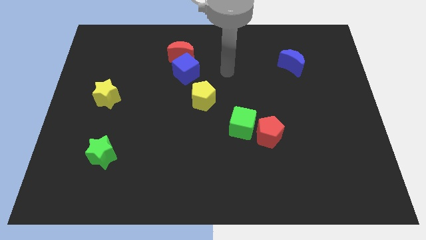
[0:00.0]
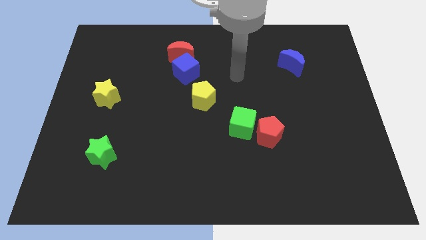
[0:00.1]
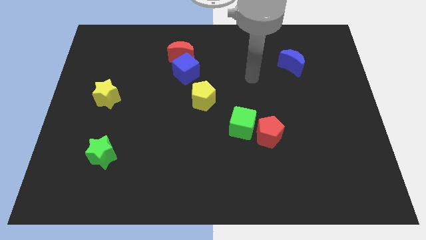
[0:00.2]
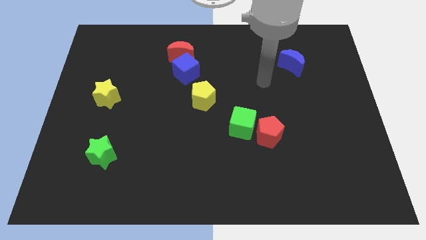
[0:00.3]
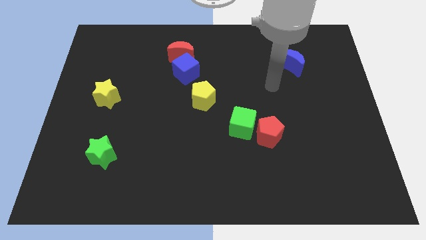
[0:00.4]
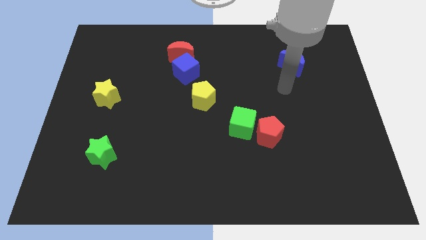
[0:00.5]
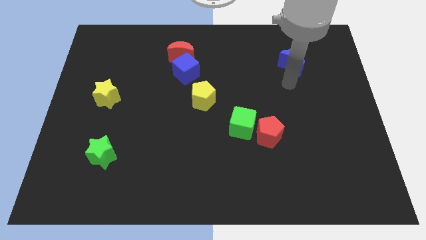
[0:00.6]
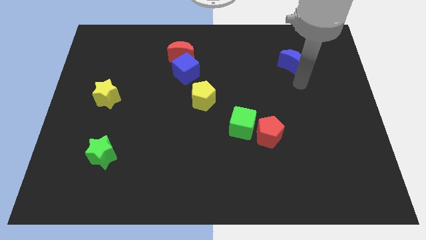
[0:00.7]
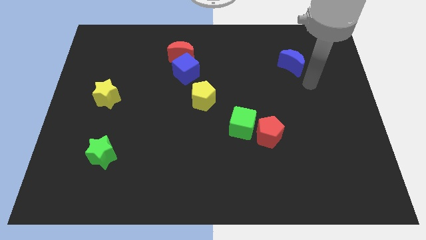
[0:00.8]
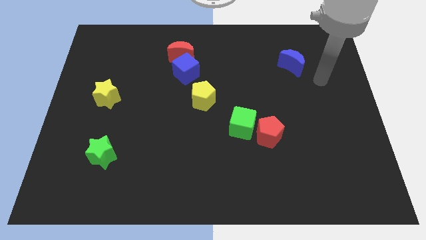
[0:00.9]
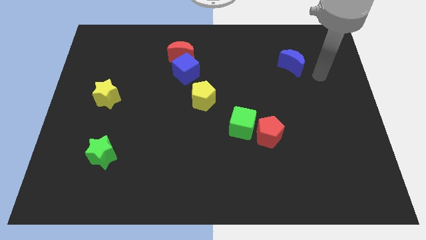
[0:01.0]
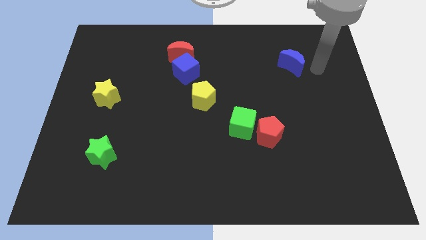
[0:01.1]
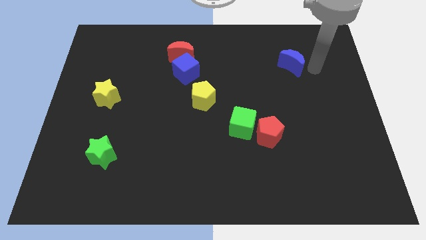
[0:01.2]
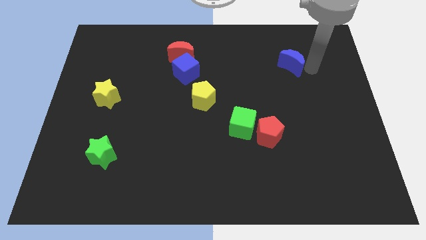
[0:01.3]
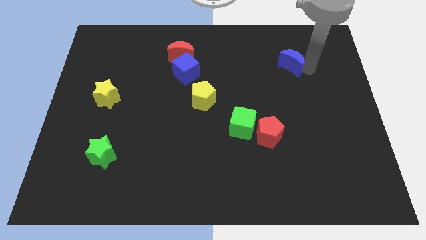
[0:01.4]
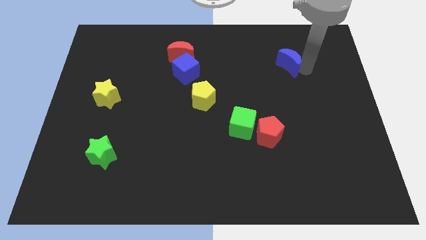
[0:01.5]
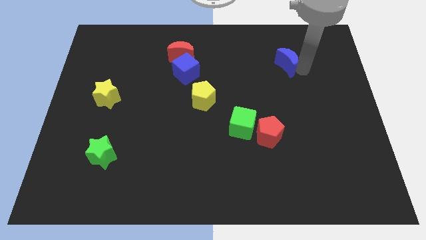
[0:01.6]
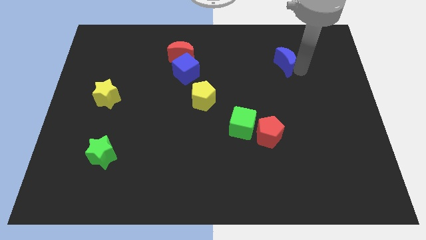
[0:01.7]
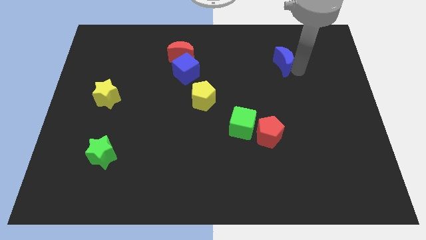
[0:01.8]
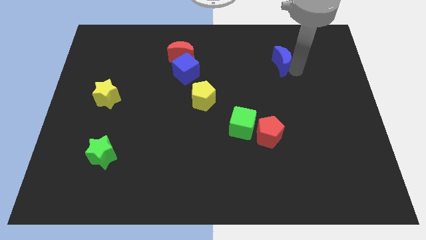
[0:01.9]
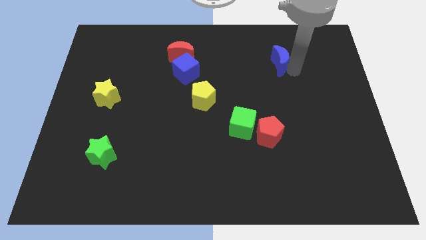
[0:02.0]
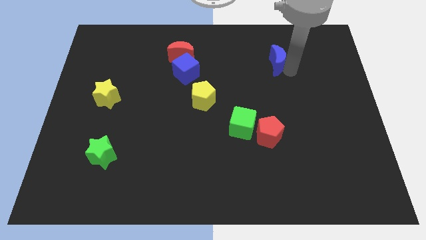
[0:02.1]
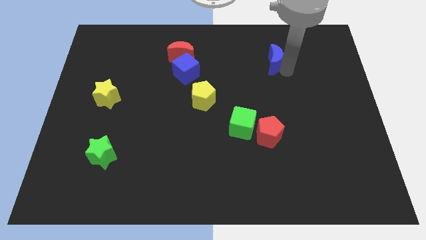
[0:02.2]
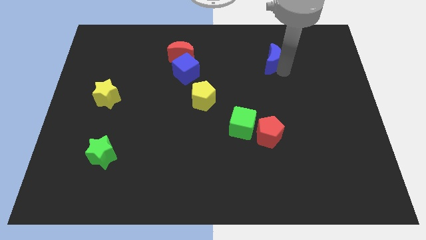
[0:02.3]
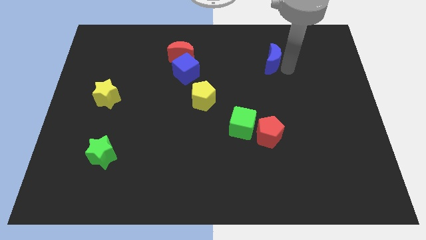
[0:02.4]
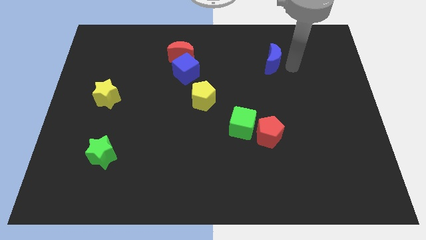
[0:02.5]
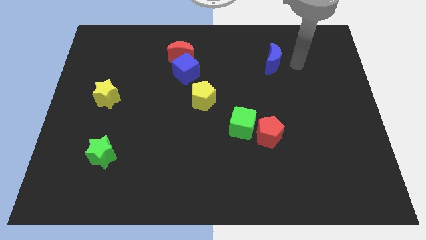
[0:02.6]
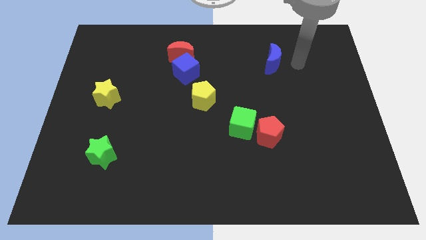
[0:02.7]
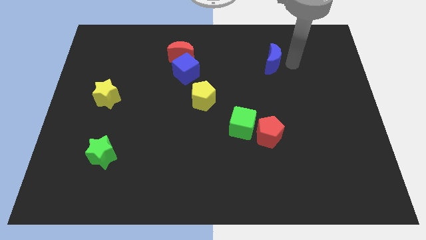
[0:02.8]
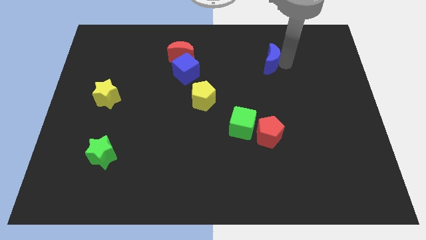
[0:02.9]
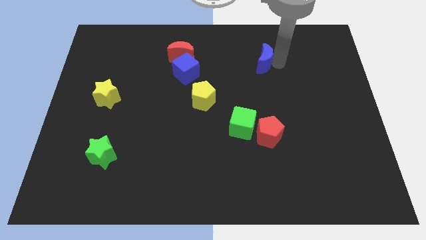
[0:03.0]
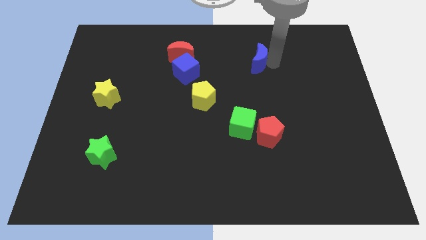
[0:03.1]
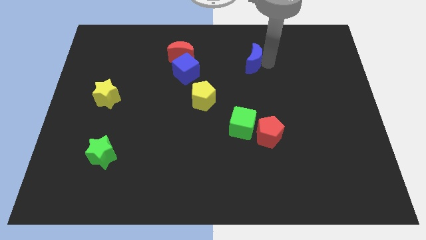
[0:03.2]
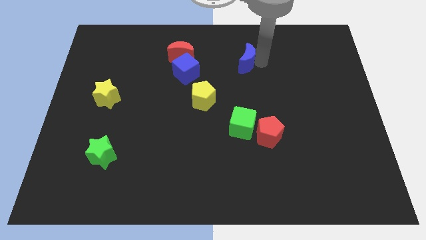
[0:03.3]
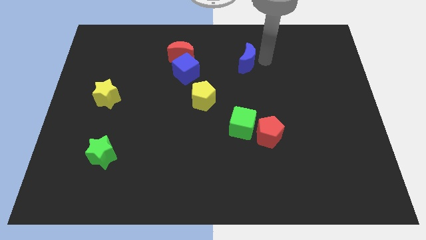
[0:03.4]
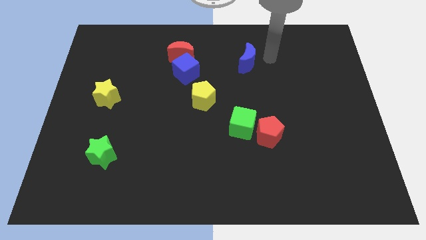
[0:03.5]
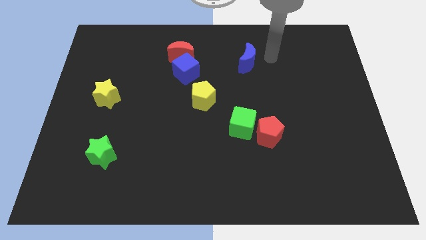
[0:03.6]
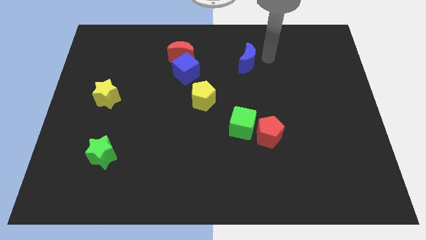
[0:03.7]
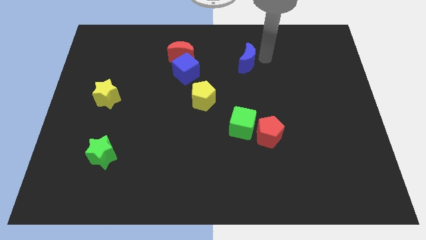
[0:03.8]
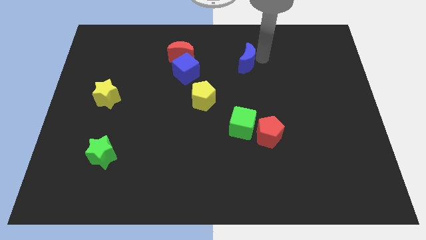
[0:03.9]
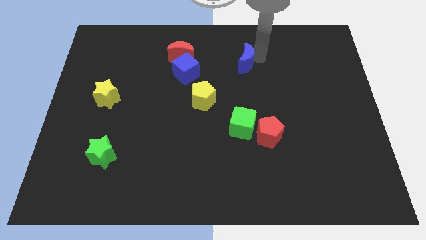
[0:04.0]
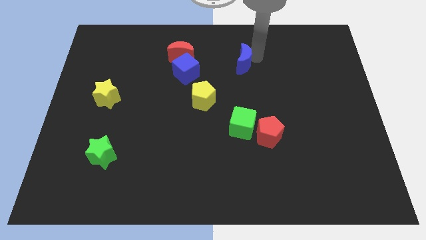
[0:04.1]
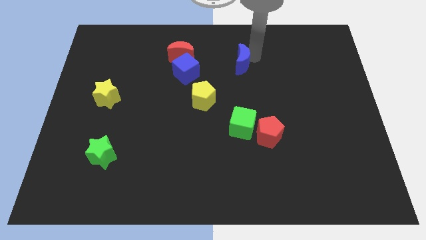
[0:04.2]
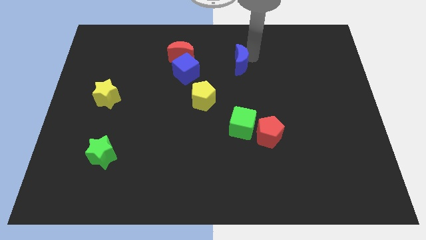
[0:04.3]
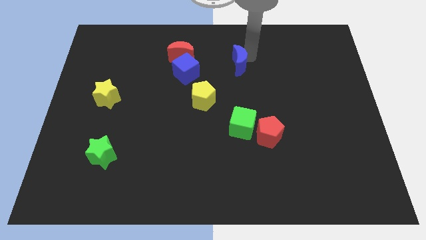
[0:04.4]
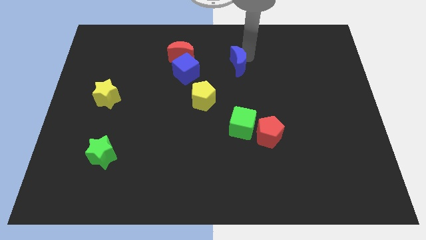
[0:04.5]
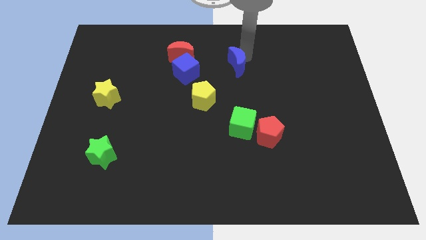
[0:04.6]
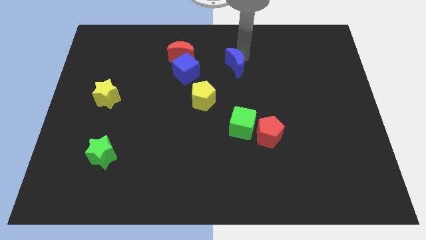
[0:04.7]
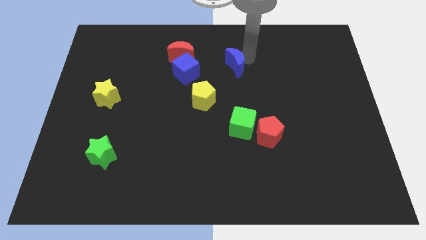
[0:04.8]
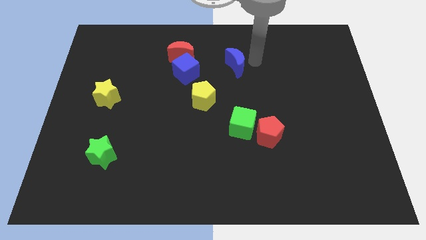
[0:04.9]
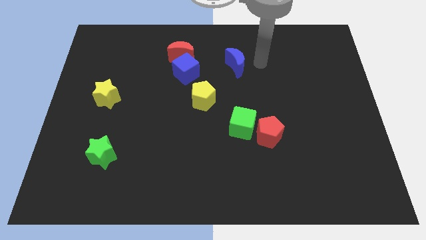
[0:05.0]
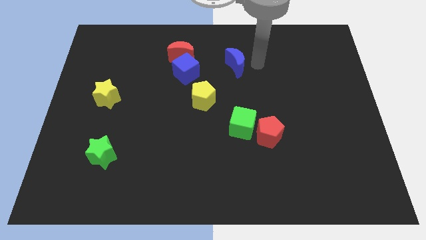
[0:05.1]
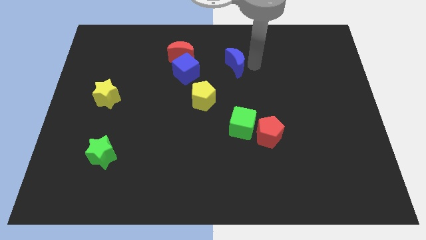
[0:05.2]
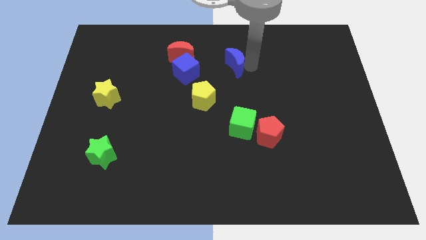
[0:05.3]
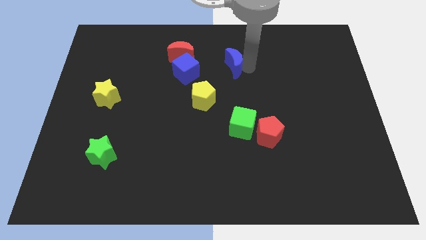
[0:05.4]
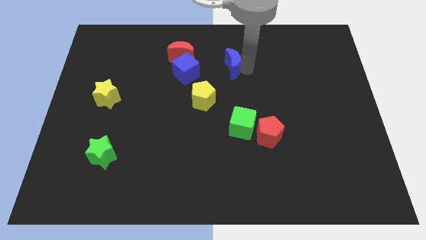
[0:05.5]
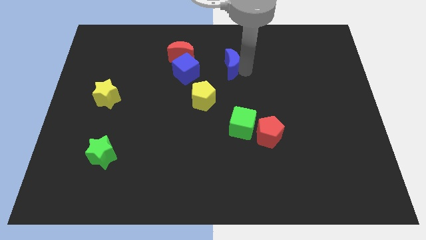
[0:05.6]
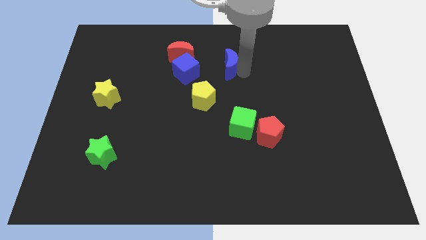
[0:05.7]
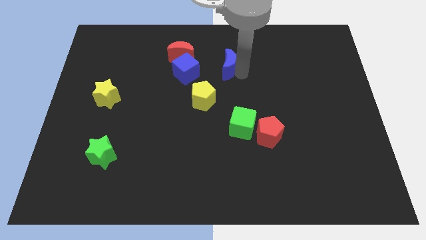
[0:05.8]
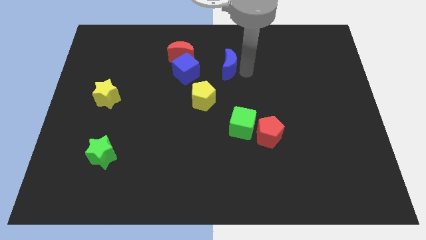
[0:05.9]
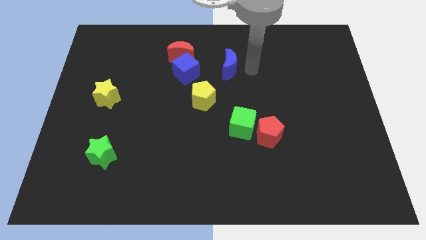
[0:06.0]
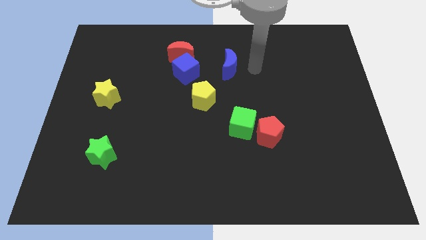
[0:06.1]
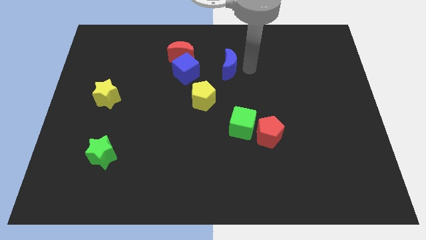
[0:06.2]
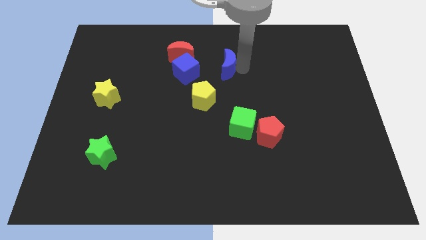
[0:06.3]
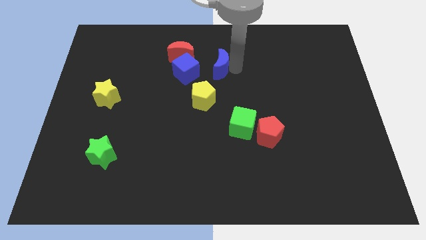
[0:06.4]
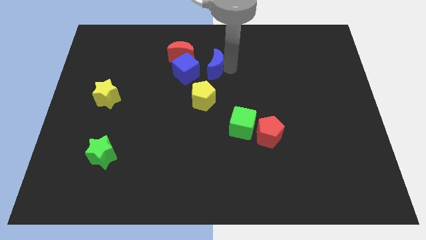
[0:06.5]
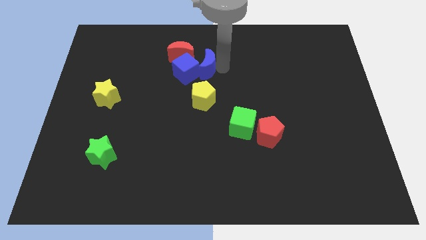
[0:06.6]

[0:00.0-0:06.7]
move the blue moon to the blue cube
